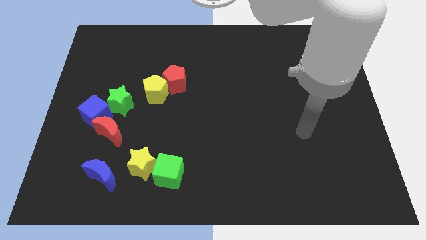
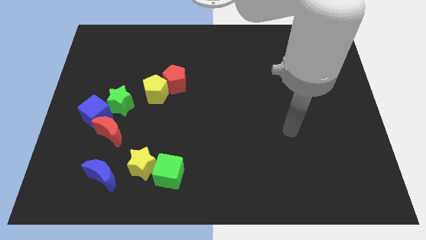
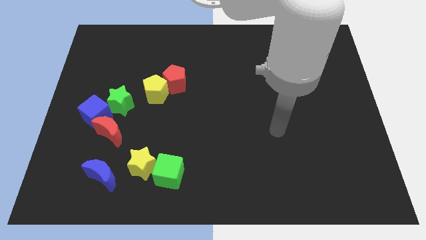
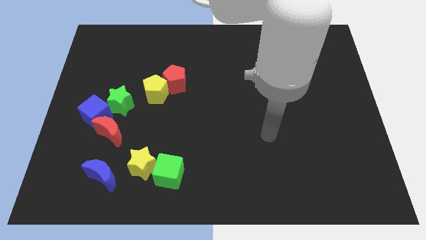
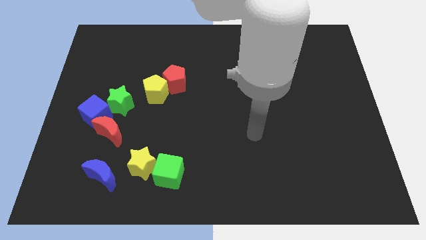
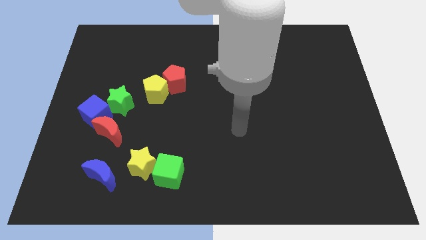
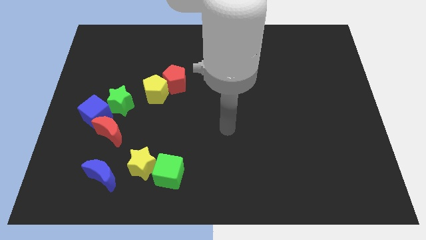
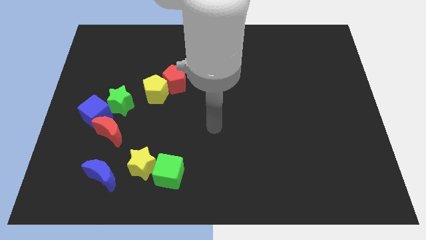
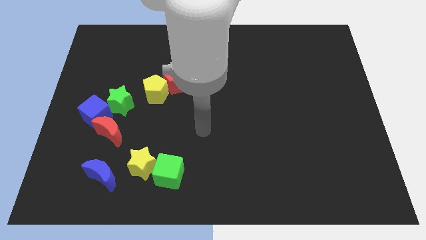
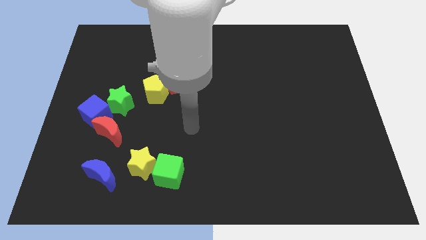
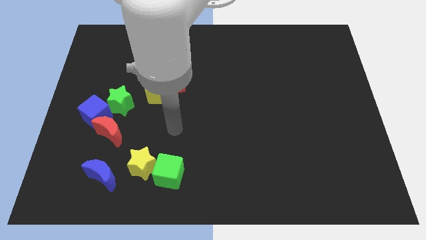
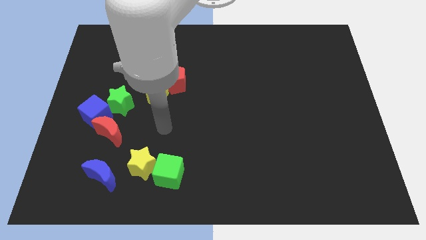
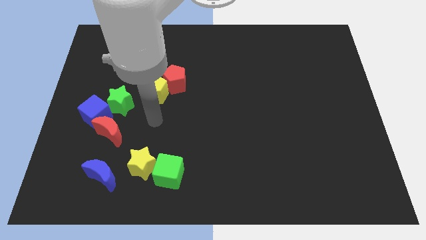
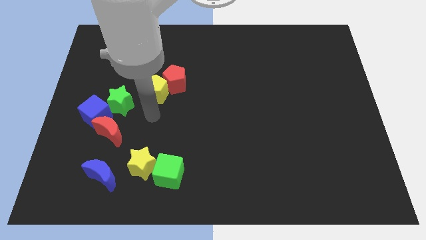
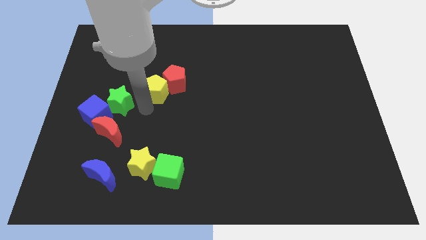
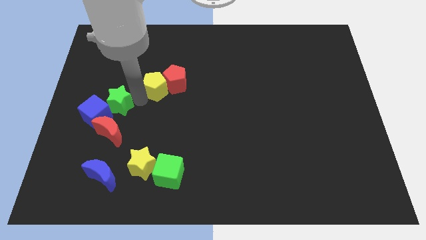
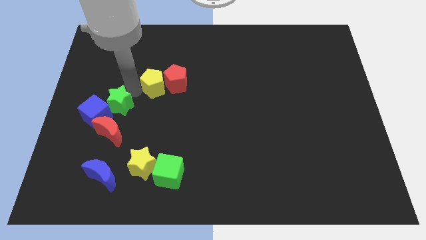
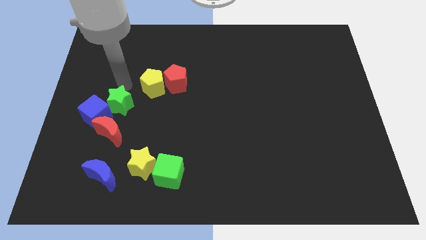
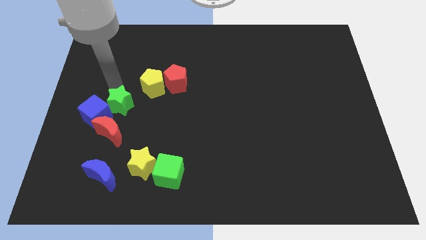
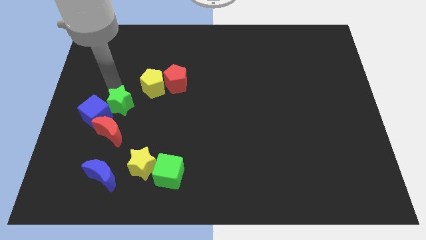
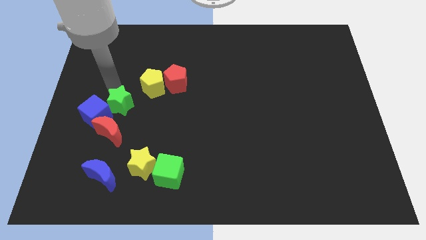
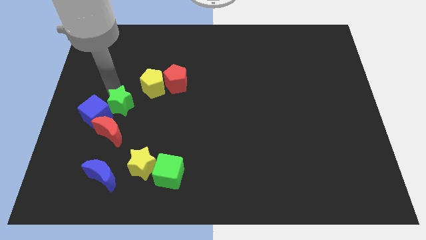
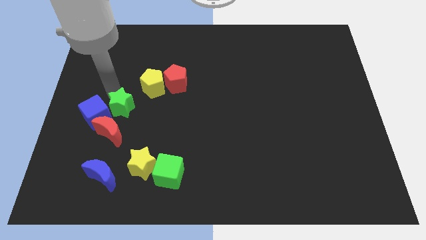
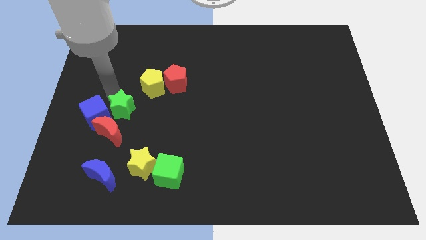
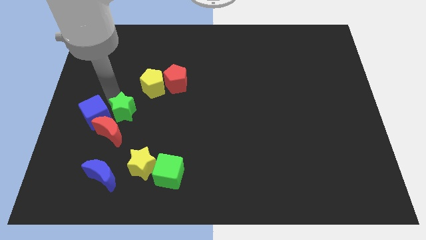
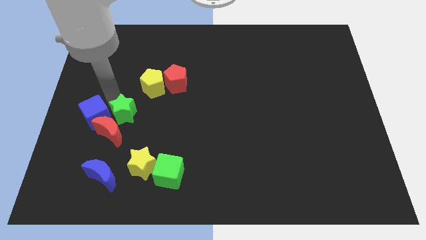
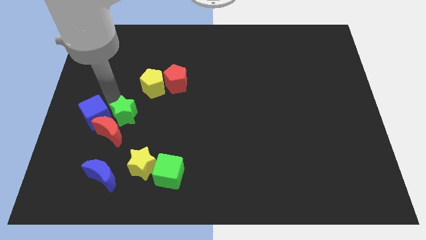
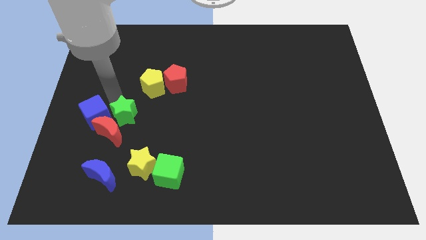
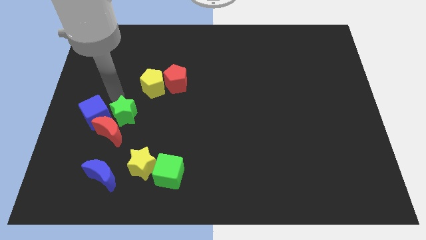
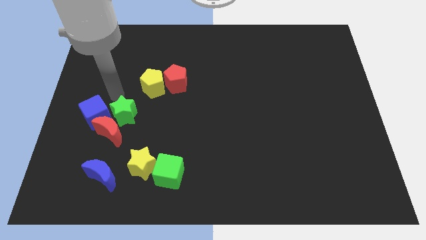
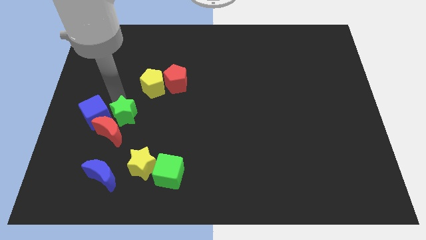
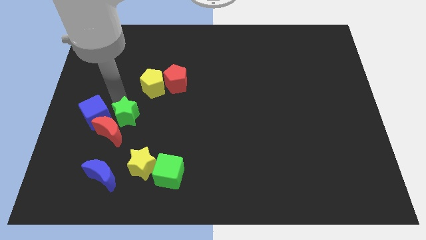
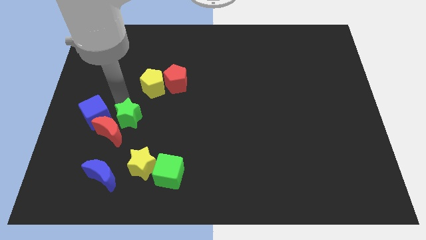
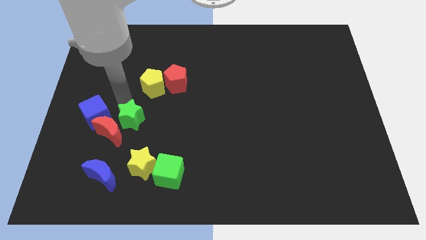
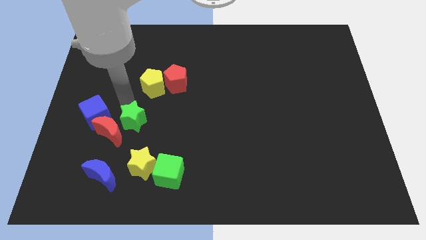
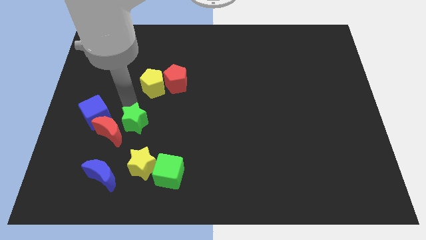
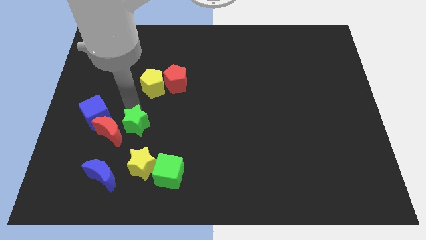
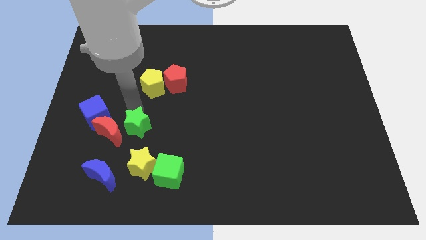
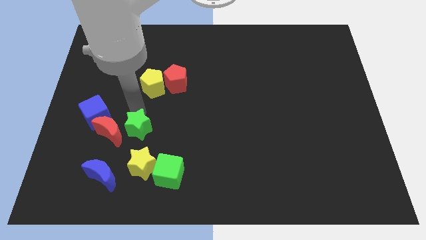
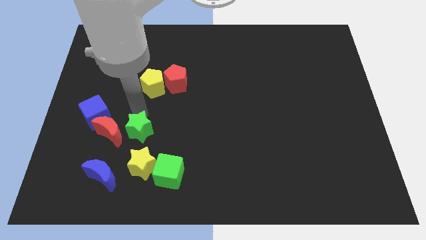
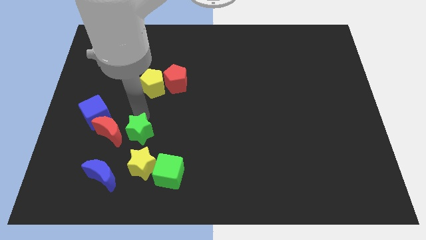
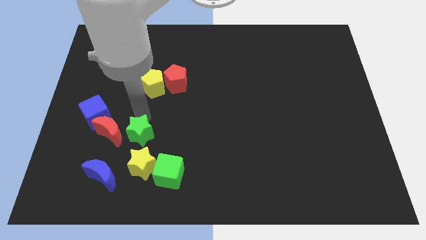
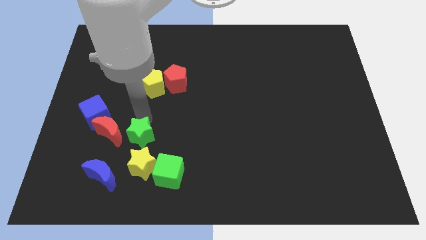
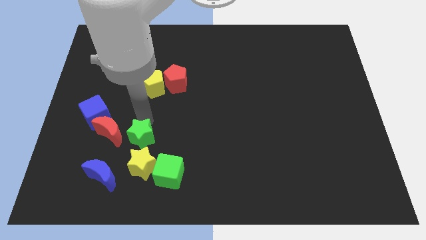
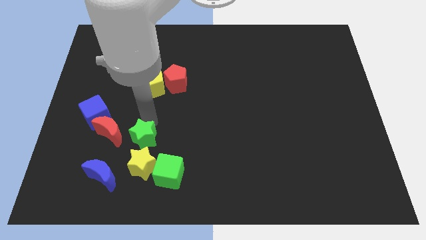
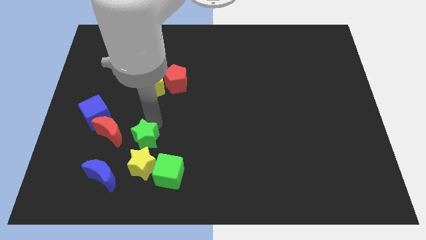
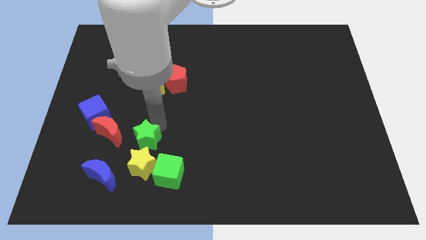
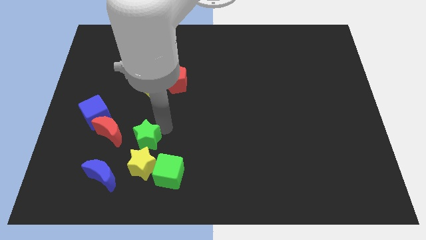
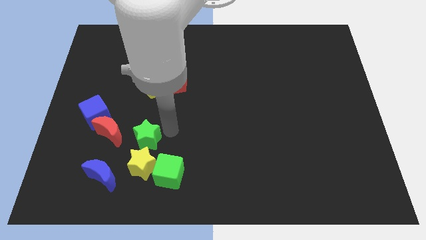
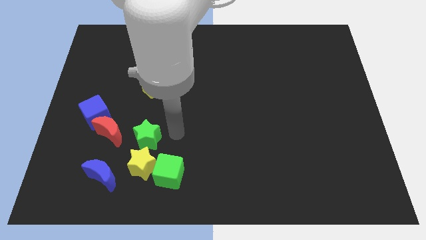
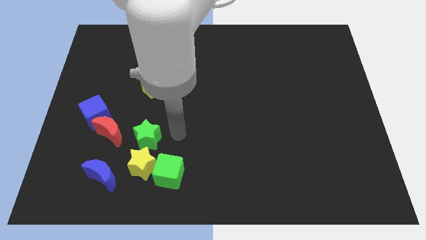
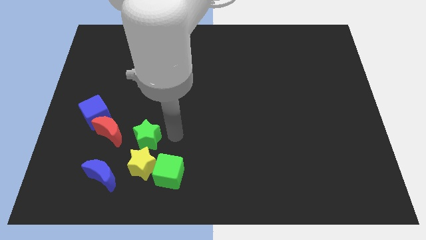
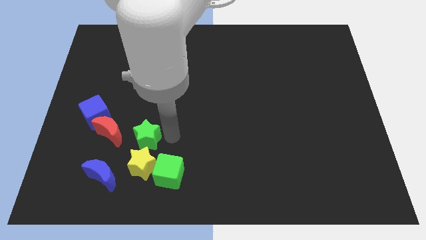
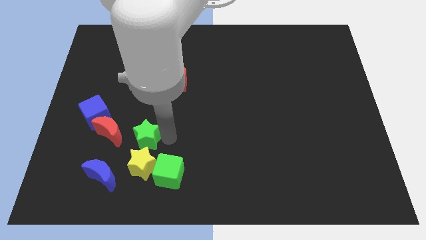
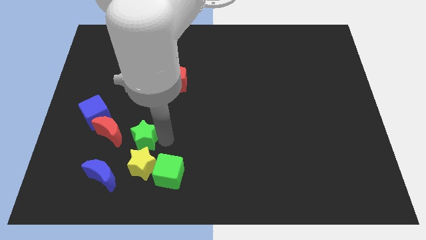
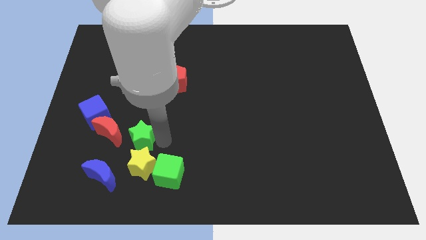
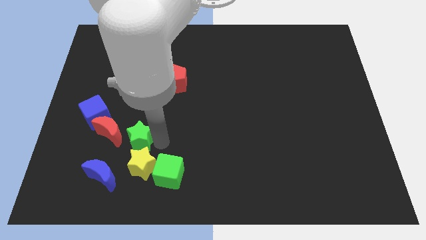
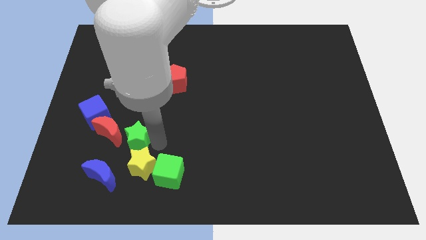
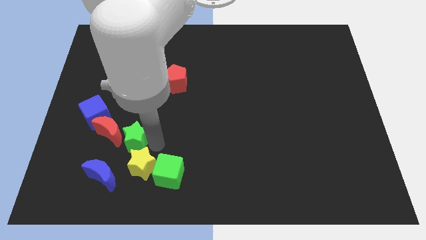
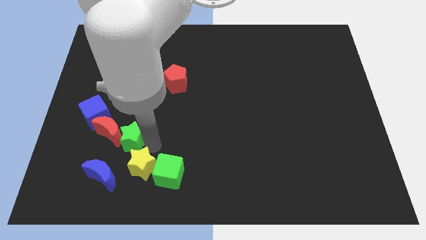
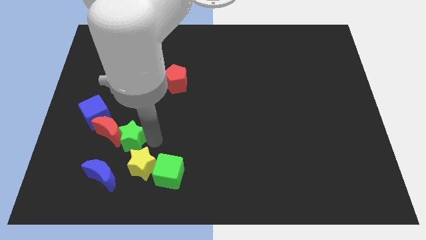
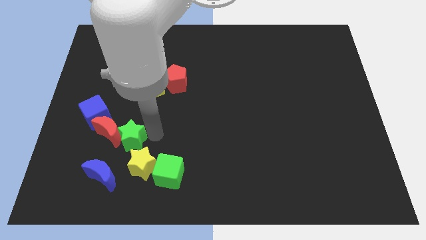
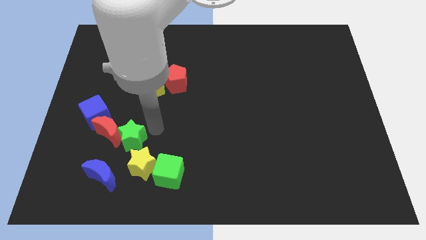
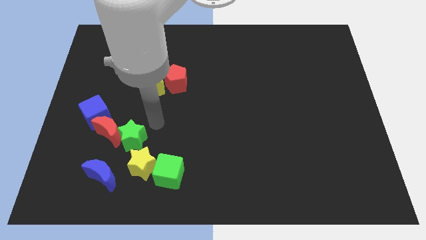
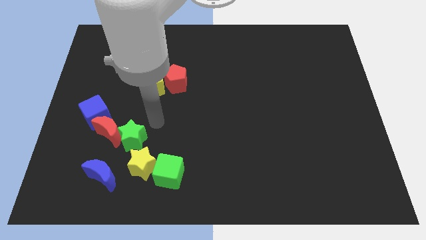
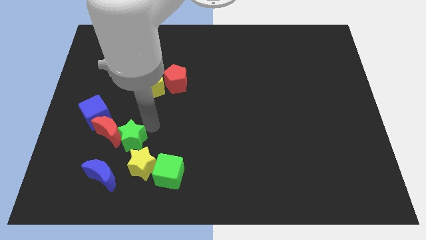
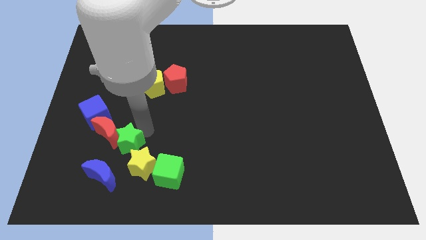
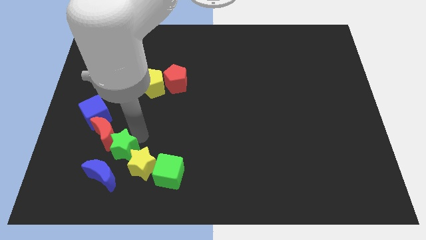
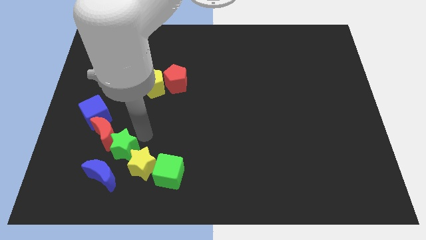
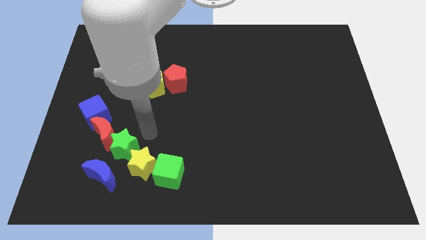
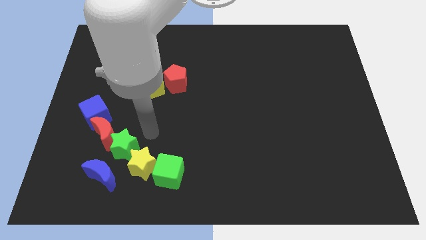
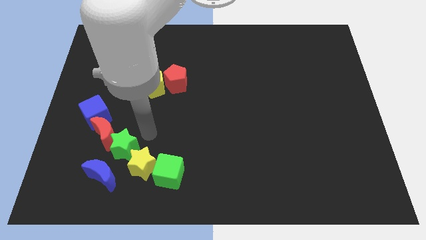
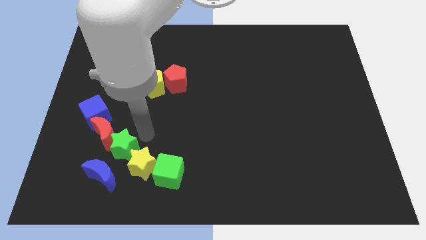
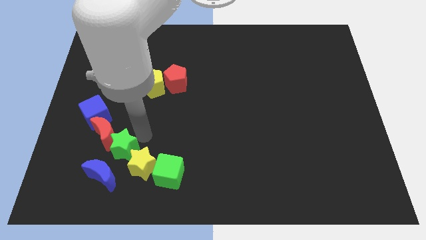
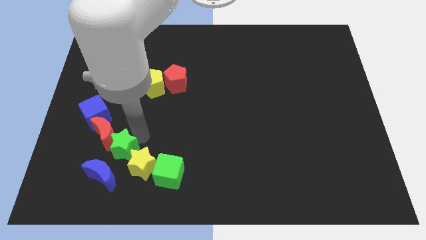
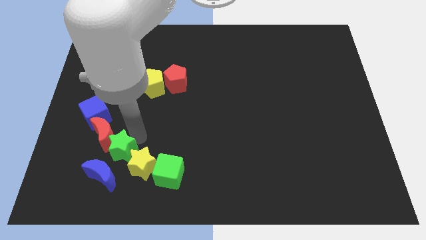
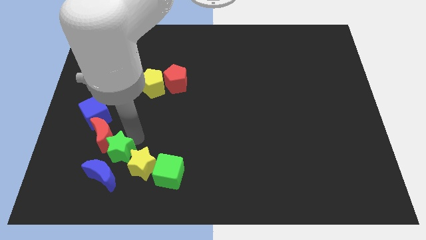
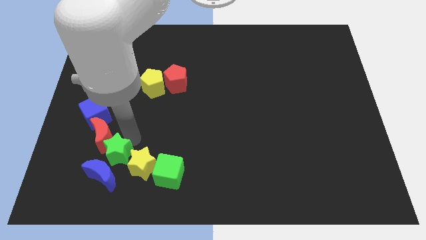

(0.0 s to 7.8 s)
push the green star close to the blue moon

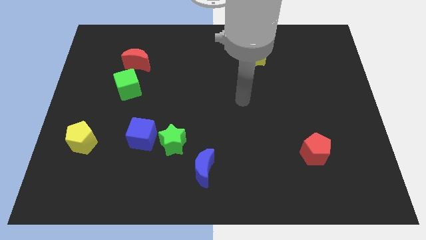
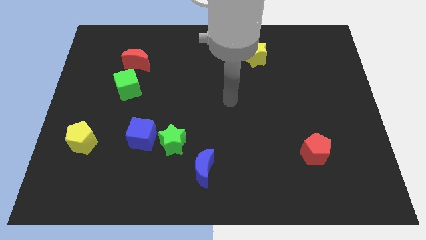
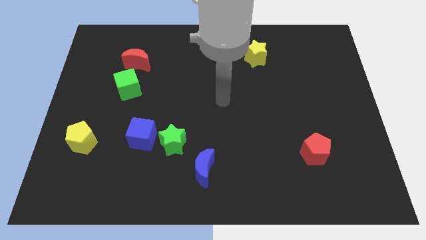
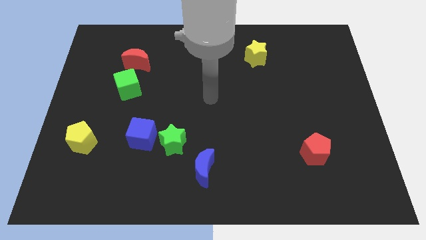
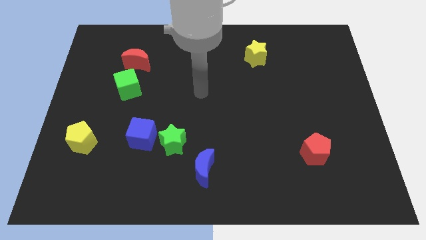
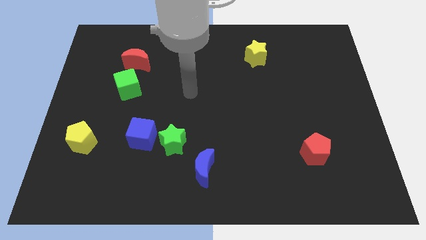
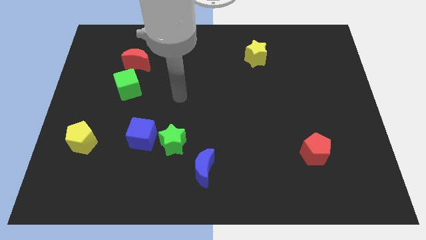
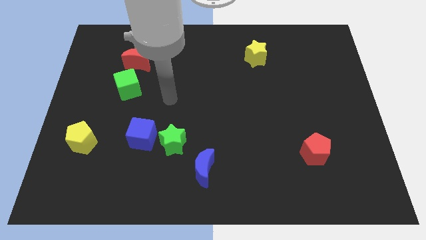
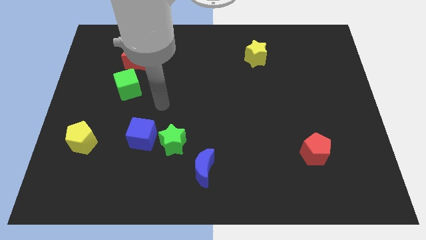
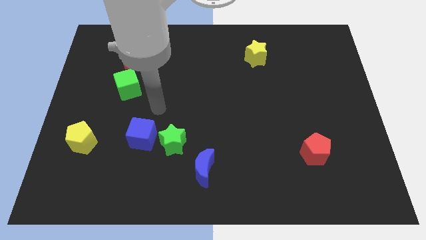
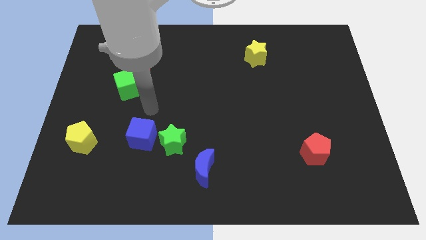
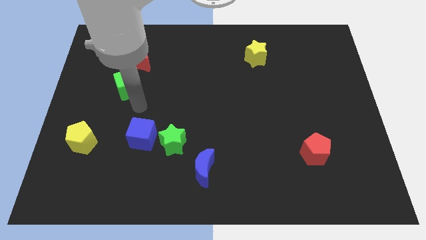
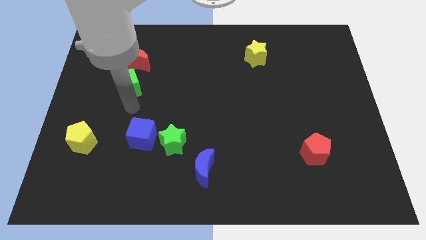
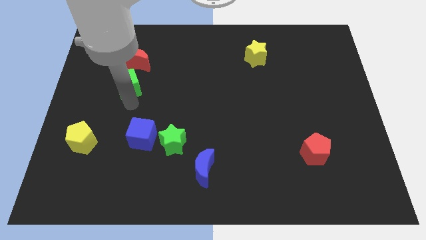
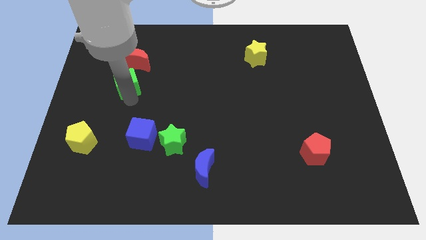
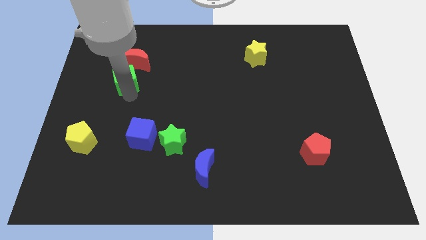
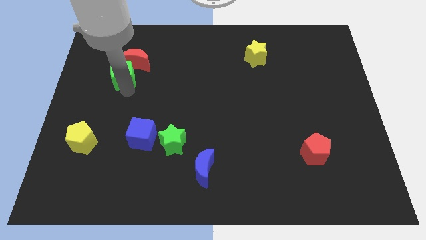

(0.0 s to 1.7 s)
move the green cube close to the red moon
